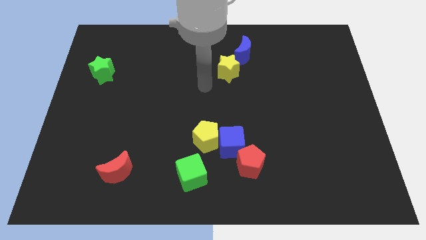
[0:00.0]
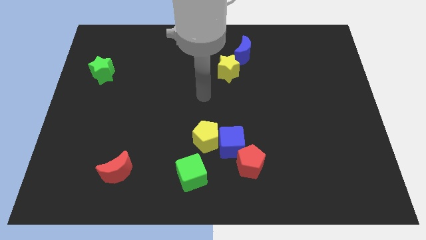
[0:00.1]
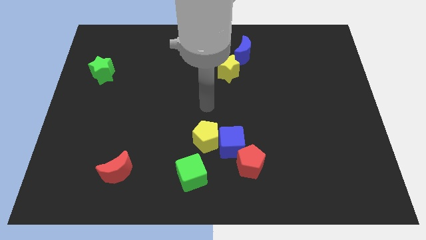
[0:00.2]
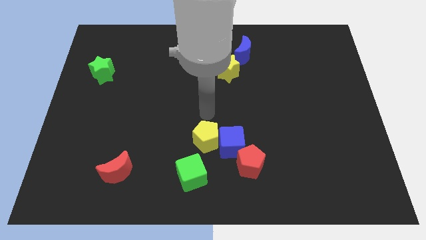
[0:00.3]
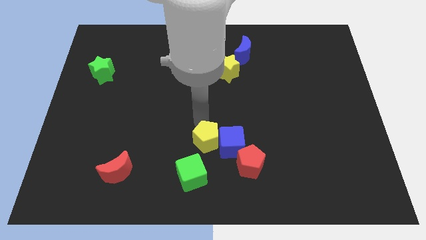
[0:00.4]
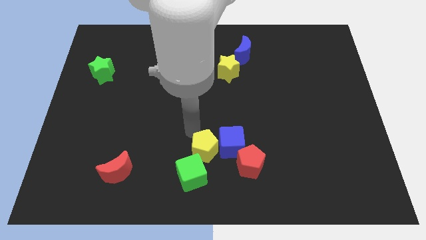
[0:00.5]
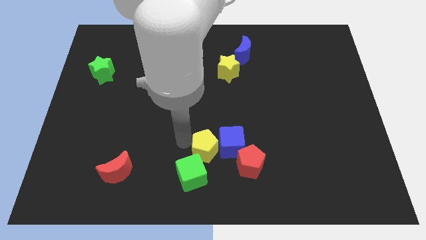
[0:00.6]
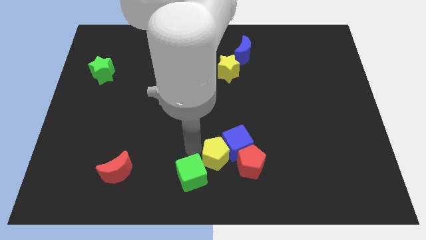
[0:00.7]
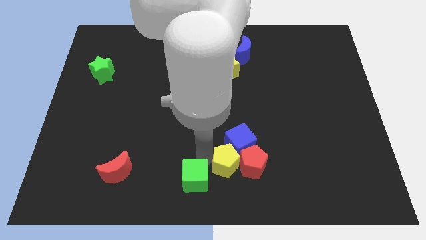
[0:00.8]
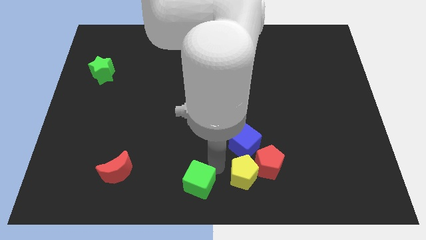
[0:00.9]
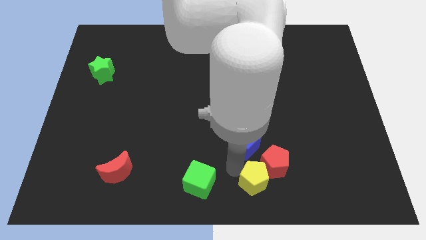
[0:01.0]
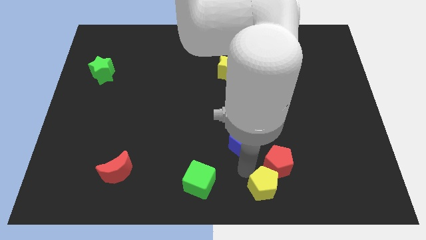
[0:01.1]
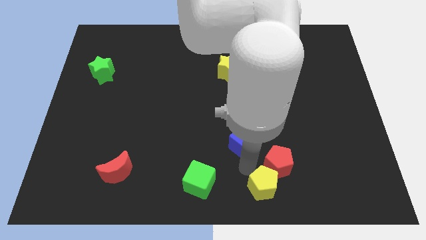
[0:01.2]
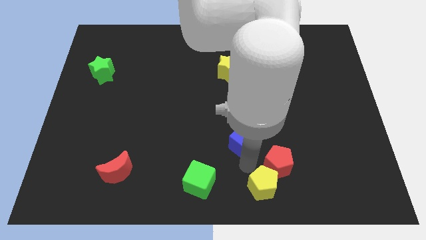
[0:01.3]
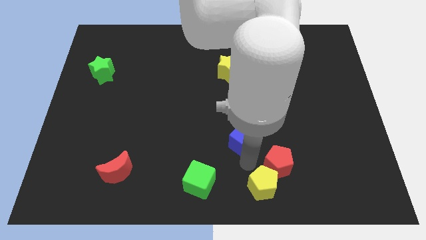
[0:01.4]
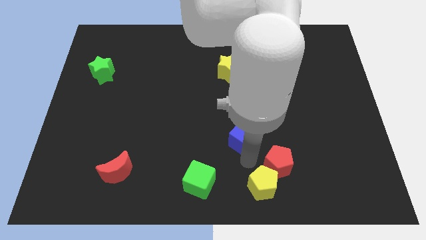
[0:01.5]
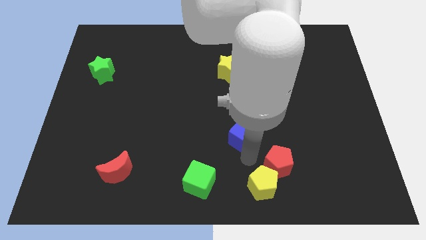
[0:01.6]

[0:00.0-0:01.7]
move the blue cube away from the yellow pentagon and red pentagon

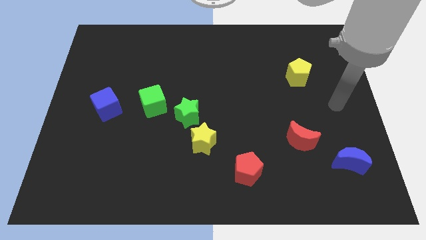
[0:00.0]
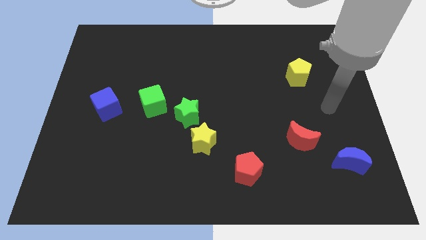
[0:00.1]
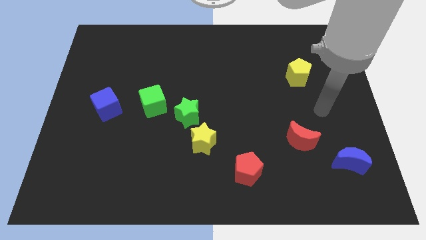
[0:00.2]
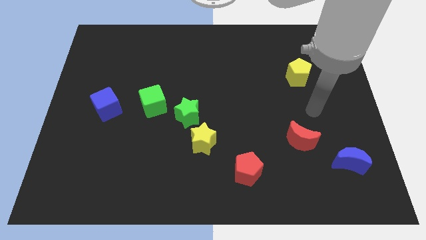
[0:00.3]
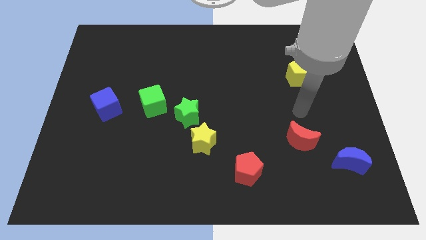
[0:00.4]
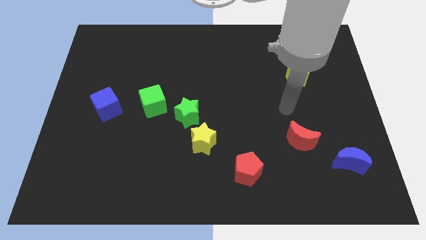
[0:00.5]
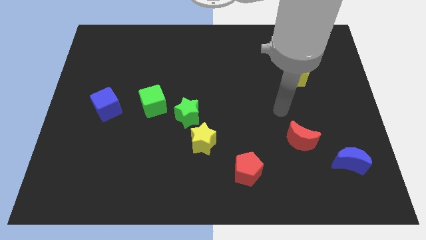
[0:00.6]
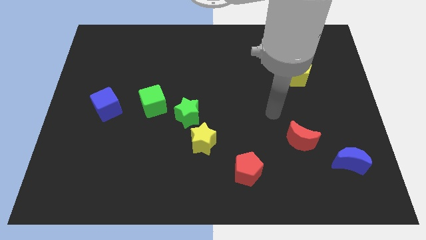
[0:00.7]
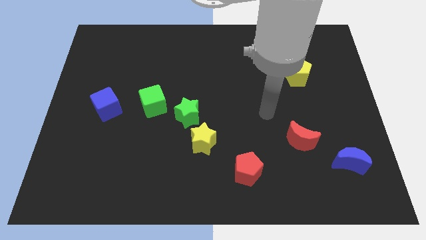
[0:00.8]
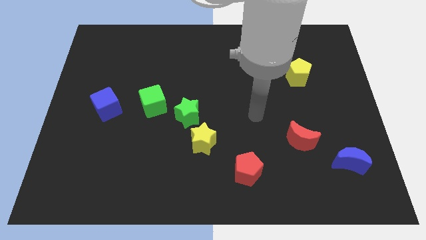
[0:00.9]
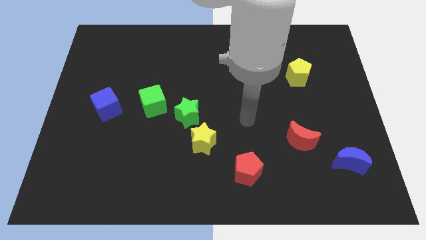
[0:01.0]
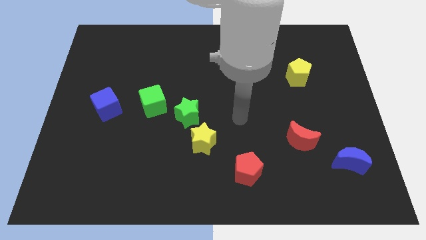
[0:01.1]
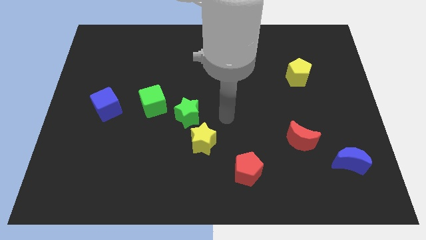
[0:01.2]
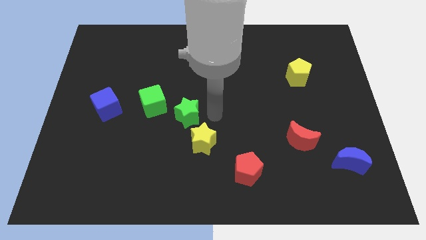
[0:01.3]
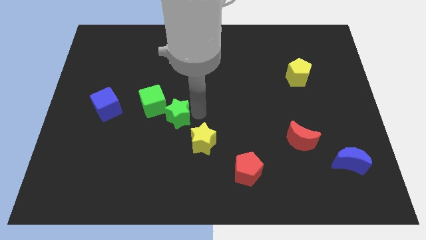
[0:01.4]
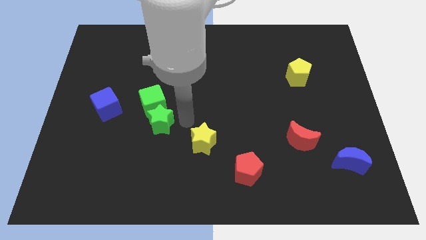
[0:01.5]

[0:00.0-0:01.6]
move the yellow star away from the green star

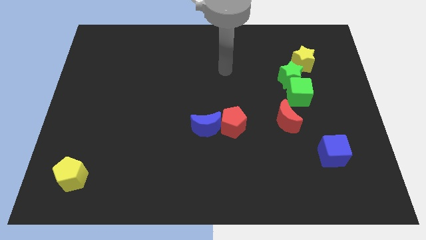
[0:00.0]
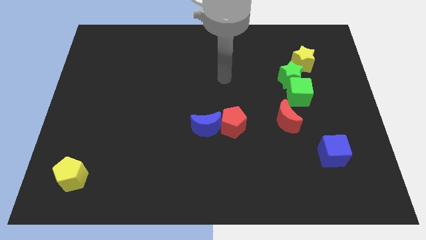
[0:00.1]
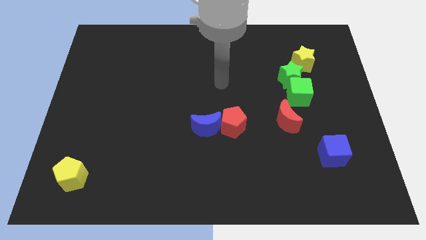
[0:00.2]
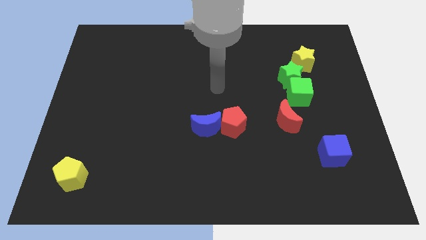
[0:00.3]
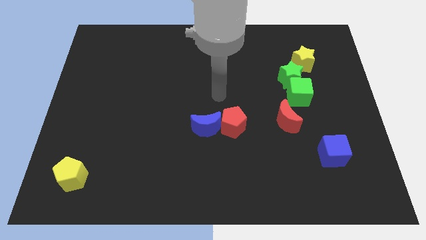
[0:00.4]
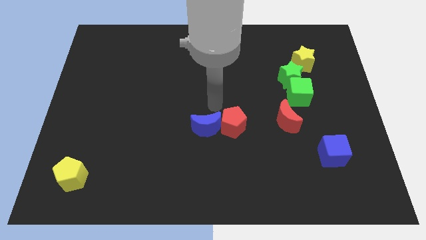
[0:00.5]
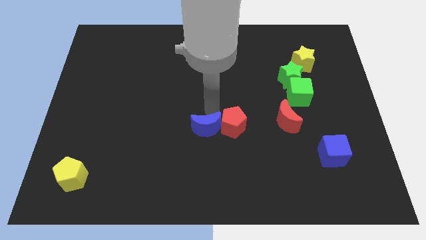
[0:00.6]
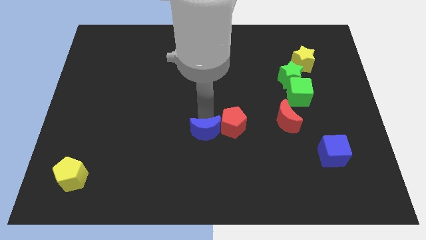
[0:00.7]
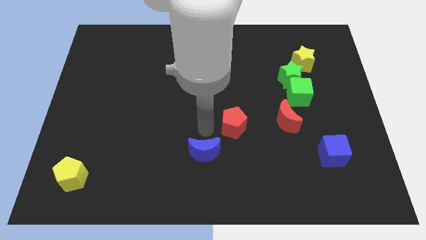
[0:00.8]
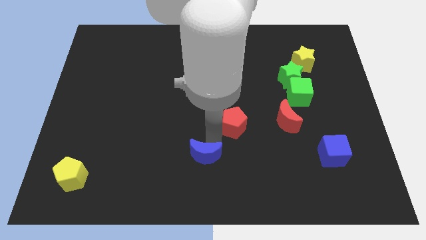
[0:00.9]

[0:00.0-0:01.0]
move the red pentagon away from the blue moon

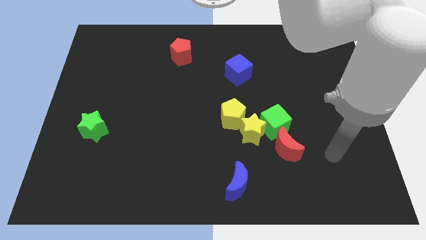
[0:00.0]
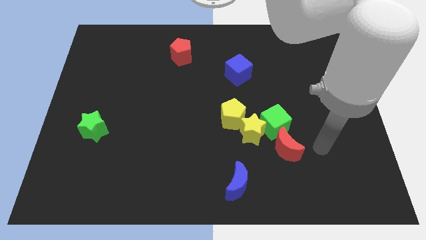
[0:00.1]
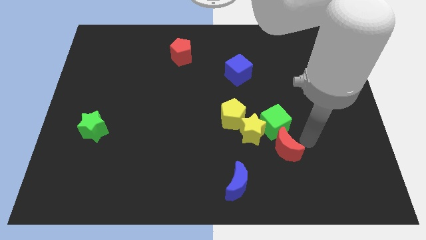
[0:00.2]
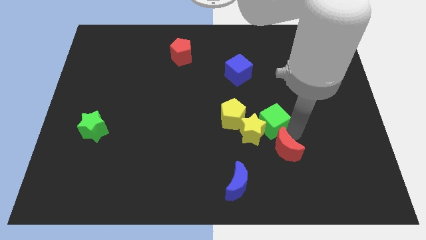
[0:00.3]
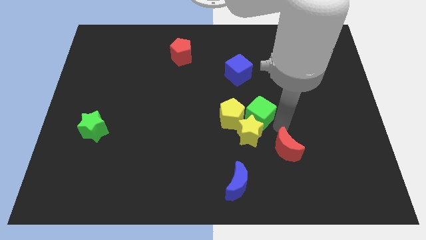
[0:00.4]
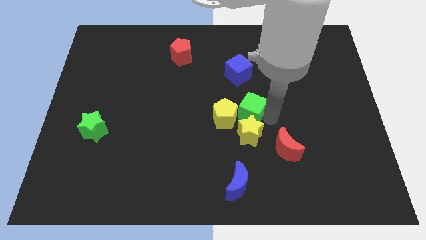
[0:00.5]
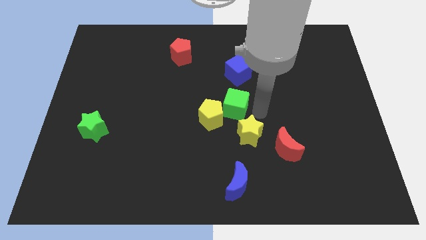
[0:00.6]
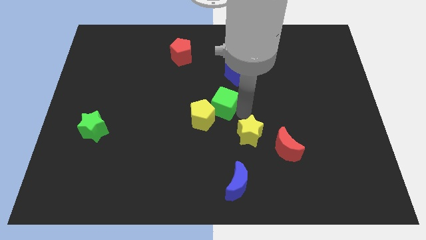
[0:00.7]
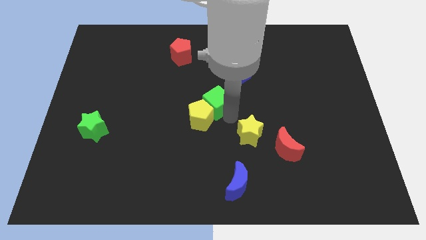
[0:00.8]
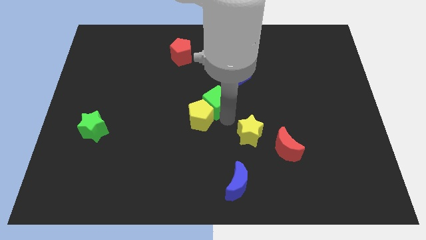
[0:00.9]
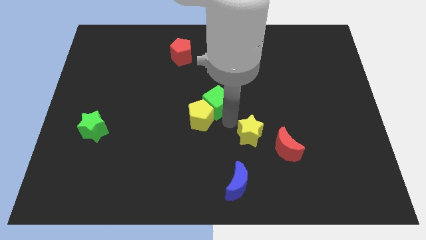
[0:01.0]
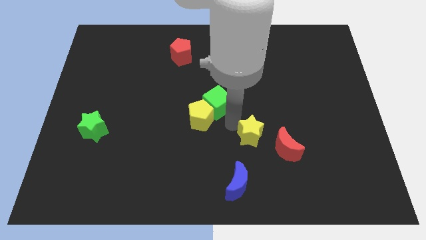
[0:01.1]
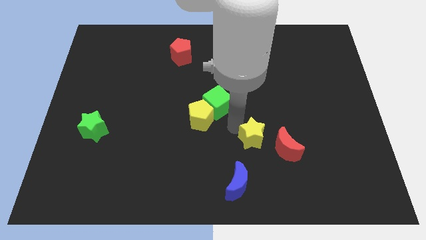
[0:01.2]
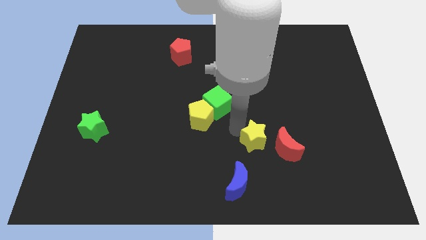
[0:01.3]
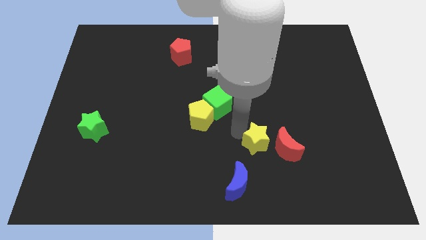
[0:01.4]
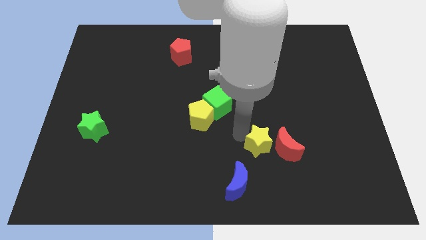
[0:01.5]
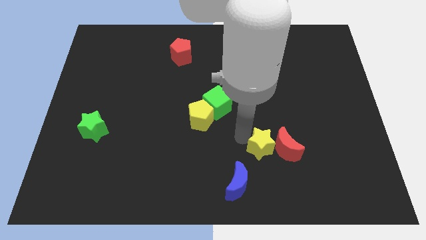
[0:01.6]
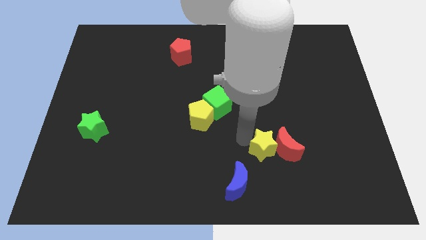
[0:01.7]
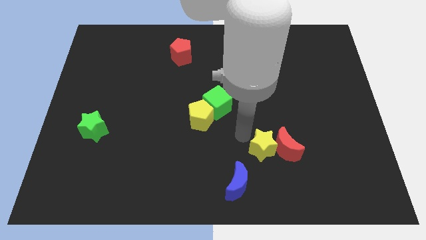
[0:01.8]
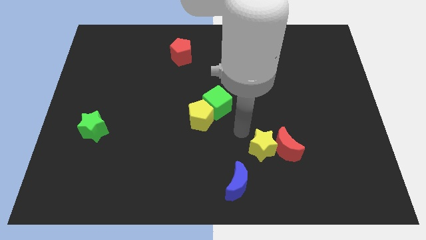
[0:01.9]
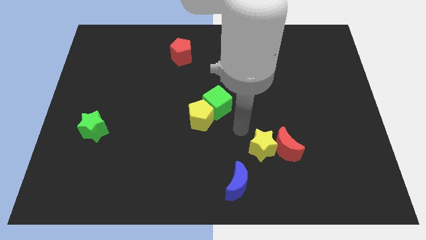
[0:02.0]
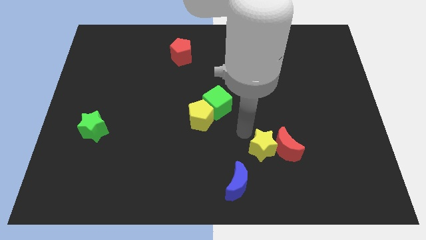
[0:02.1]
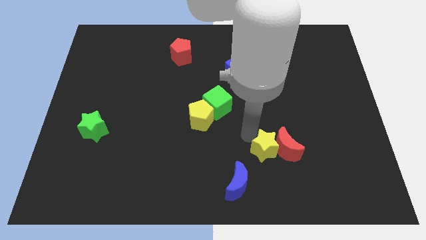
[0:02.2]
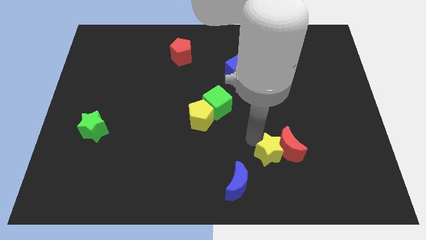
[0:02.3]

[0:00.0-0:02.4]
pull the yellow star apart from the group

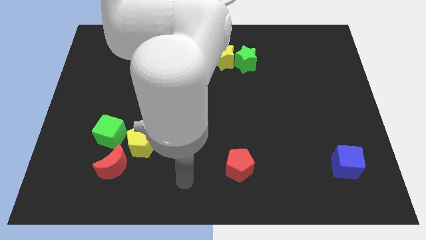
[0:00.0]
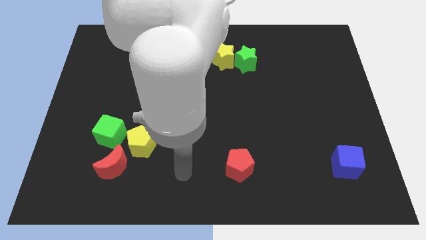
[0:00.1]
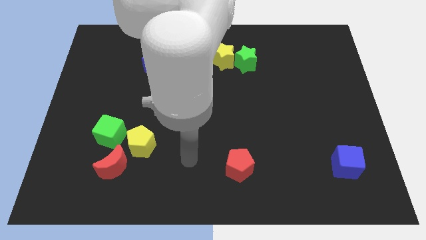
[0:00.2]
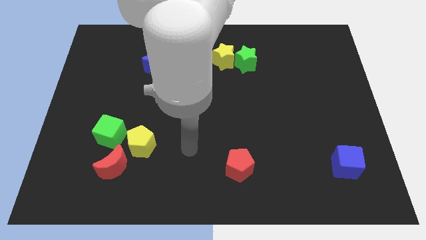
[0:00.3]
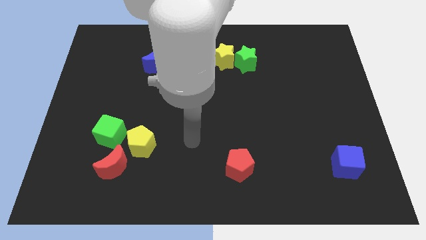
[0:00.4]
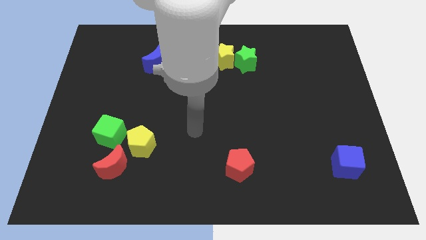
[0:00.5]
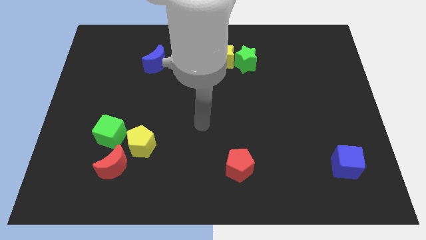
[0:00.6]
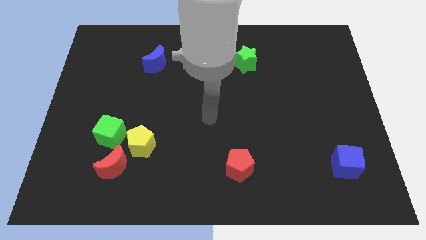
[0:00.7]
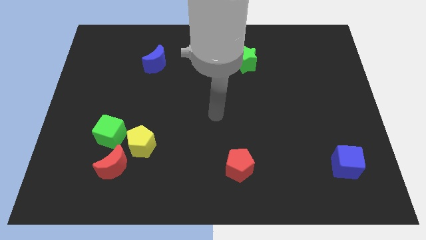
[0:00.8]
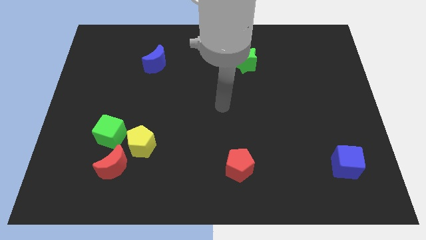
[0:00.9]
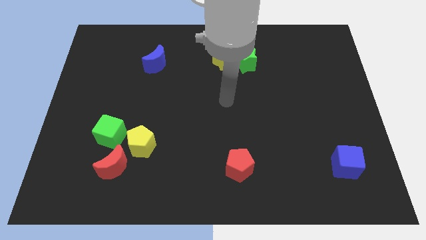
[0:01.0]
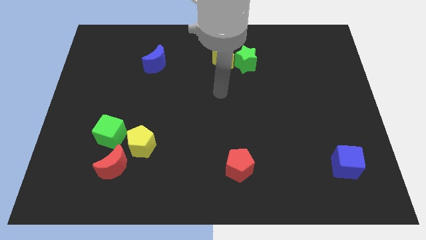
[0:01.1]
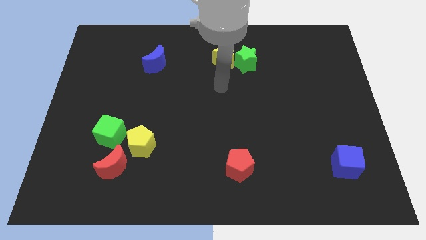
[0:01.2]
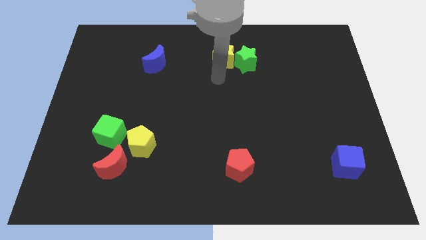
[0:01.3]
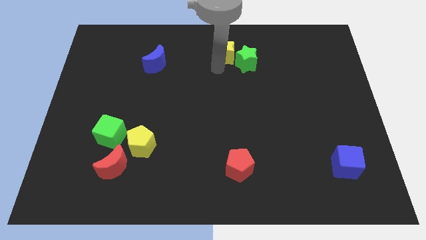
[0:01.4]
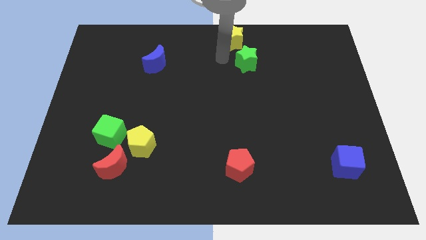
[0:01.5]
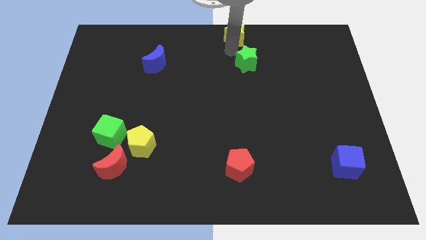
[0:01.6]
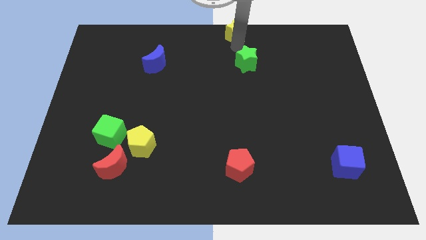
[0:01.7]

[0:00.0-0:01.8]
separate the green star from the yellow star

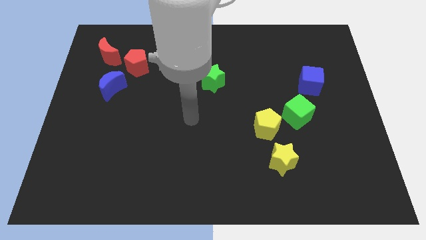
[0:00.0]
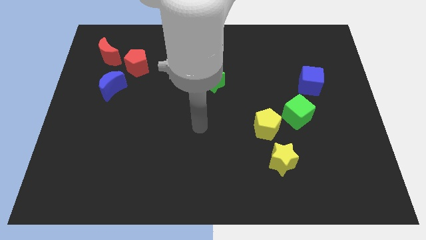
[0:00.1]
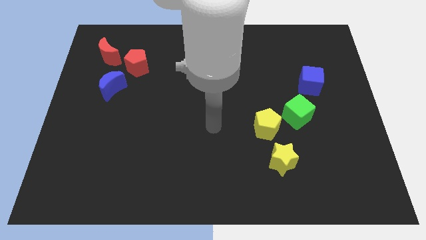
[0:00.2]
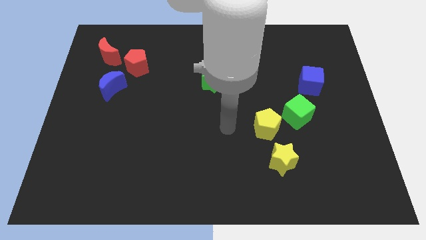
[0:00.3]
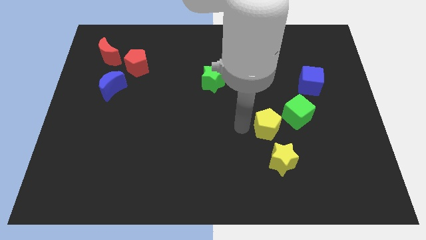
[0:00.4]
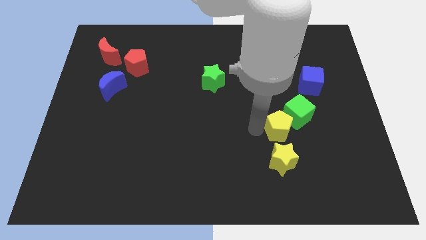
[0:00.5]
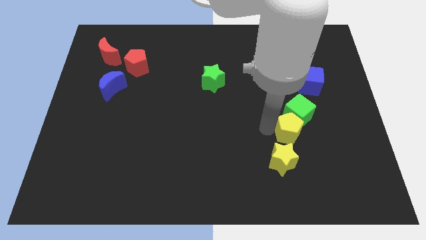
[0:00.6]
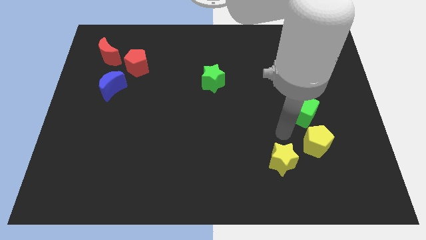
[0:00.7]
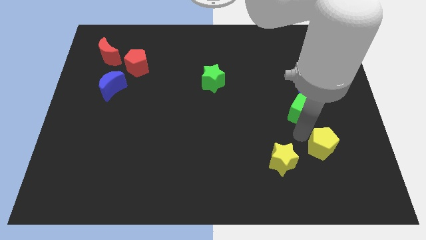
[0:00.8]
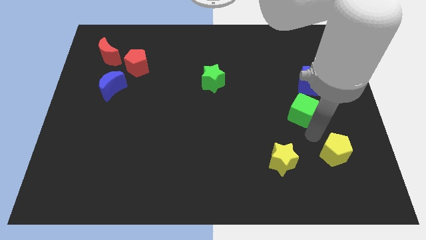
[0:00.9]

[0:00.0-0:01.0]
move the green cube away from the yellow pentagon
